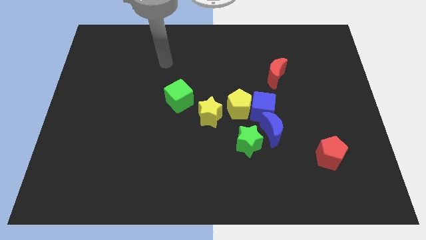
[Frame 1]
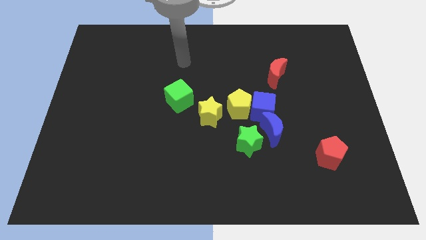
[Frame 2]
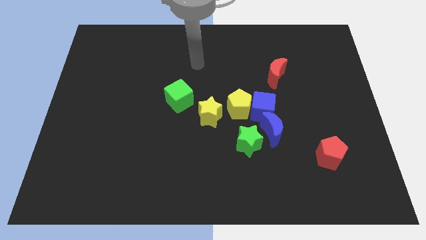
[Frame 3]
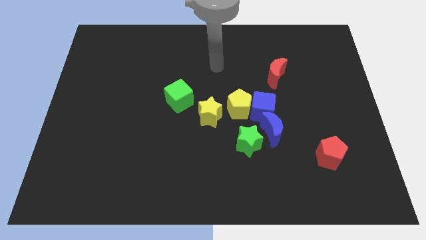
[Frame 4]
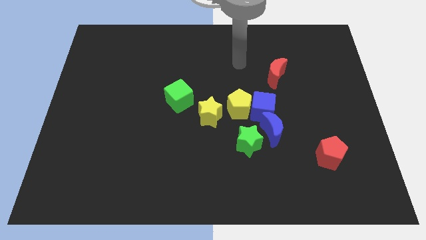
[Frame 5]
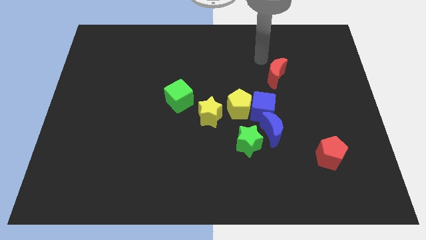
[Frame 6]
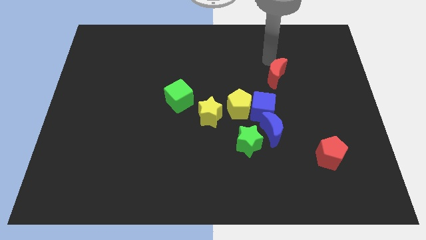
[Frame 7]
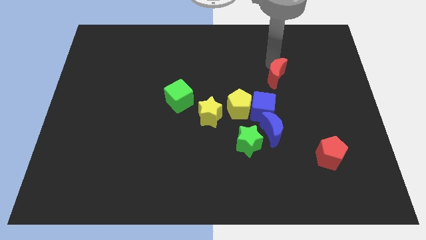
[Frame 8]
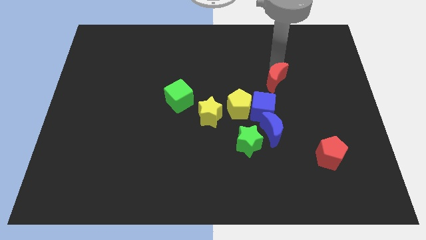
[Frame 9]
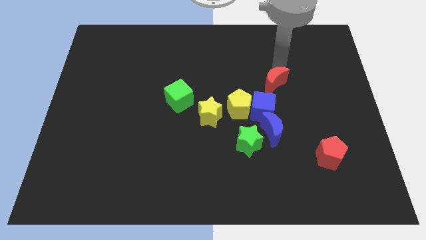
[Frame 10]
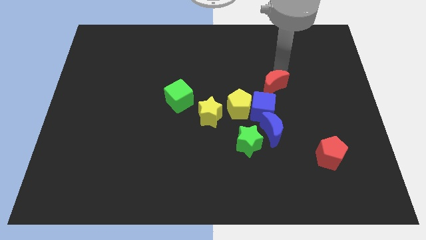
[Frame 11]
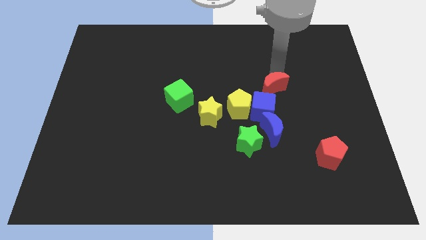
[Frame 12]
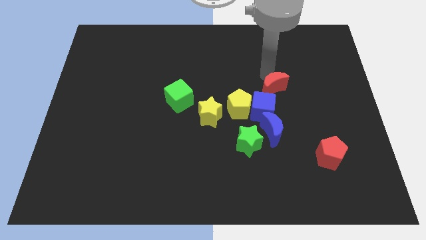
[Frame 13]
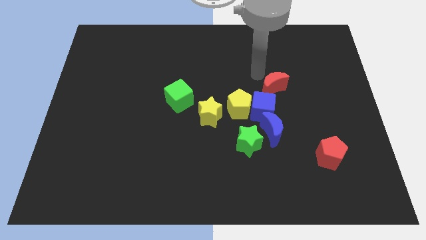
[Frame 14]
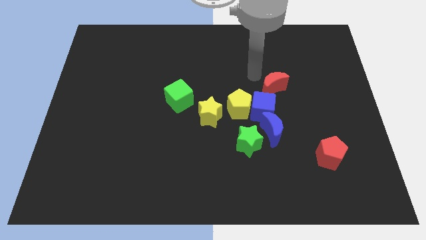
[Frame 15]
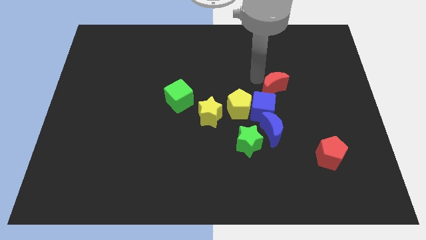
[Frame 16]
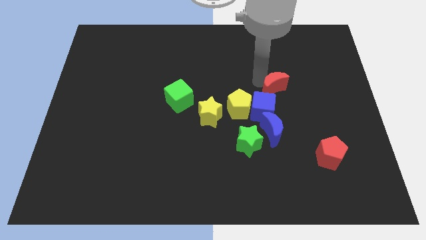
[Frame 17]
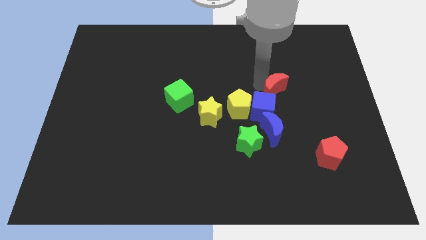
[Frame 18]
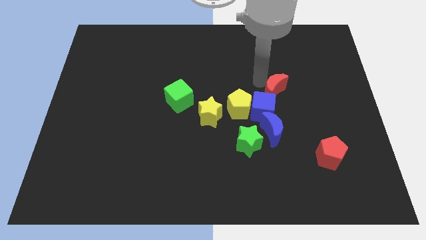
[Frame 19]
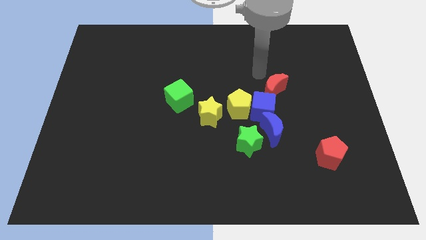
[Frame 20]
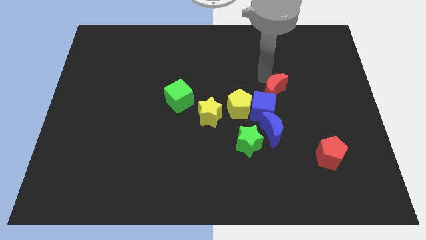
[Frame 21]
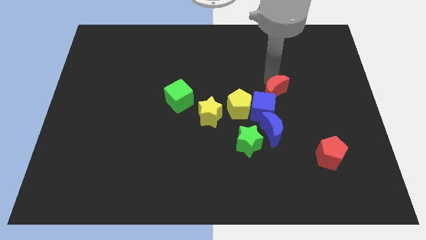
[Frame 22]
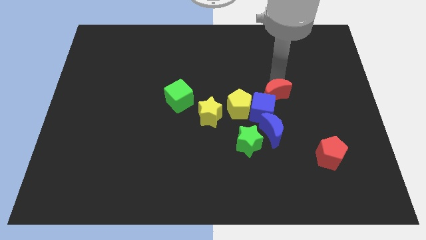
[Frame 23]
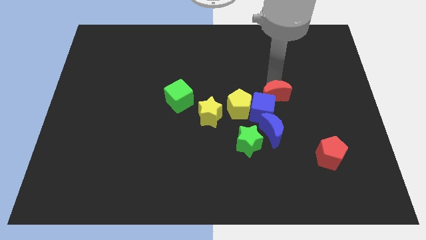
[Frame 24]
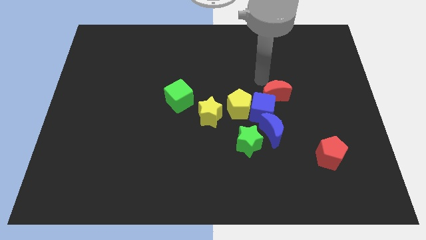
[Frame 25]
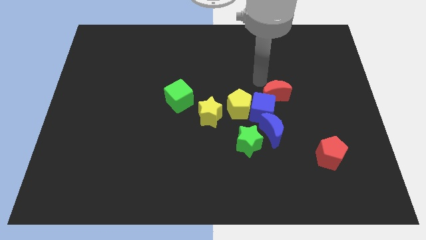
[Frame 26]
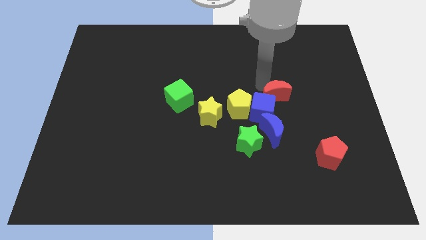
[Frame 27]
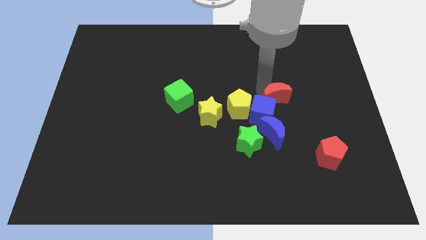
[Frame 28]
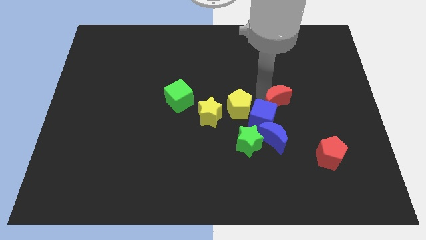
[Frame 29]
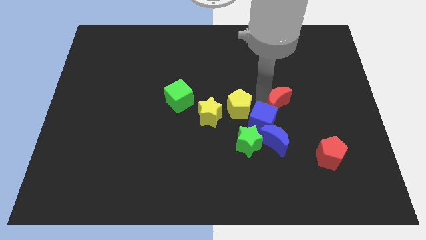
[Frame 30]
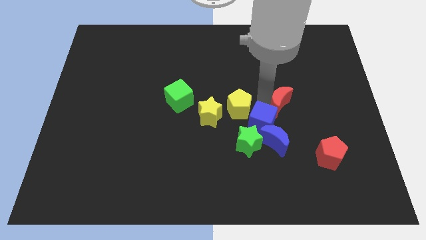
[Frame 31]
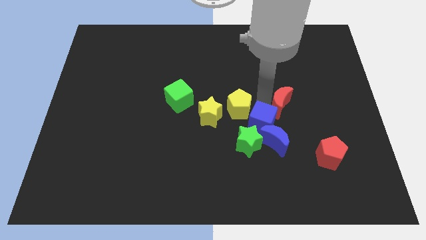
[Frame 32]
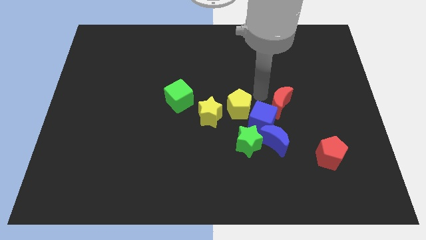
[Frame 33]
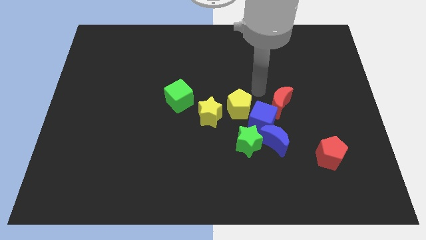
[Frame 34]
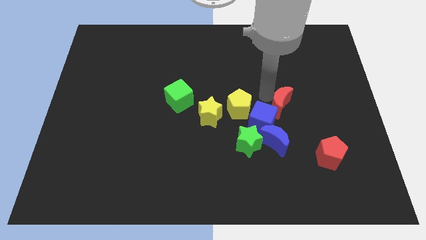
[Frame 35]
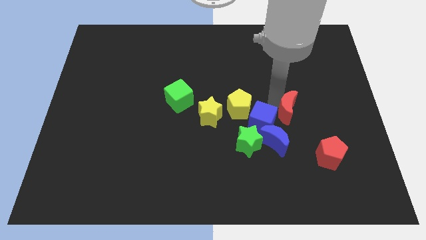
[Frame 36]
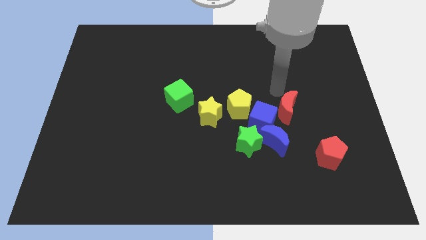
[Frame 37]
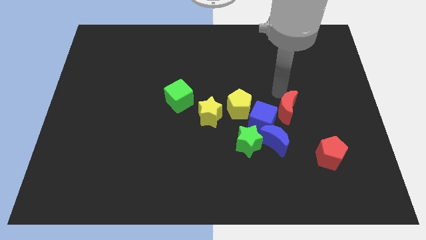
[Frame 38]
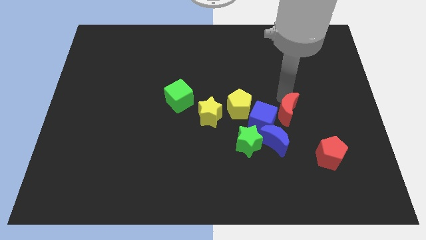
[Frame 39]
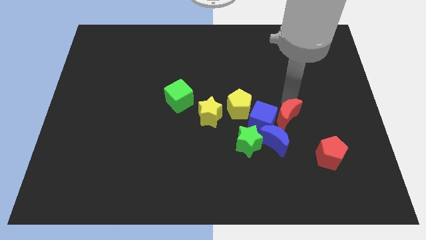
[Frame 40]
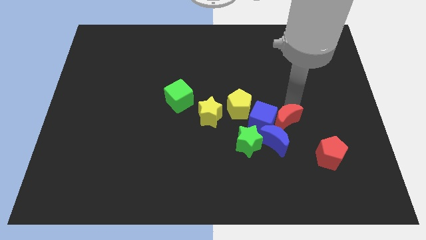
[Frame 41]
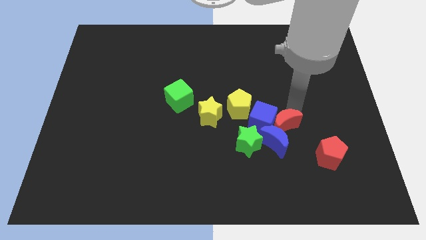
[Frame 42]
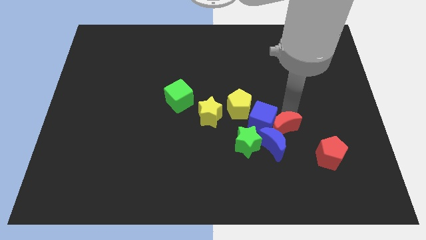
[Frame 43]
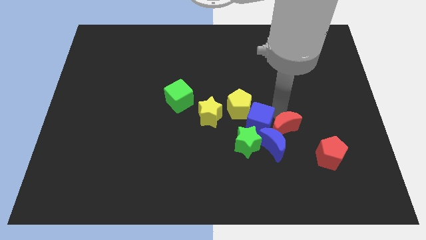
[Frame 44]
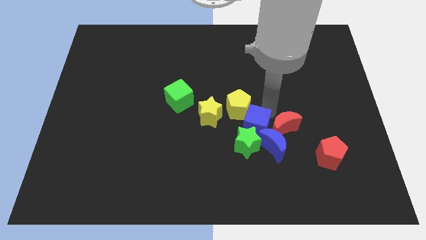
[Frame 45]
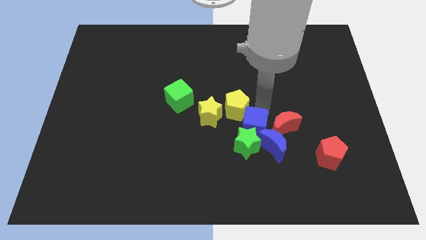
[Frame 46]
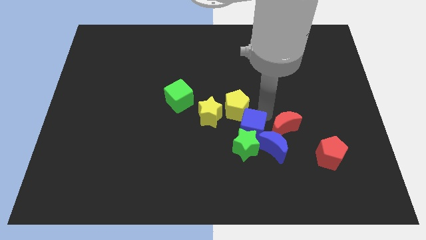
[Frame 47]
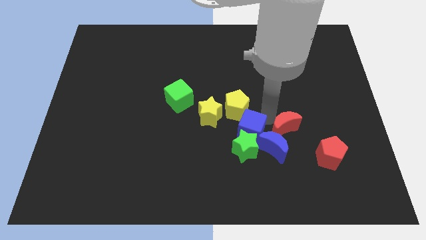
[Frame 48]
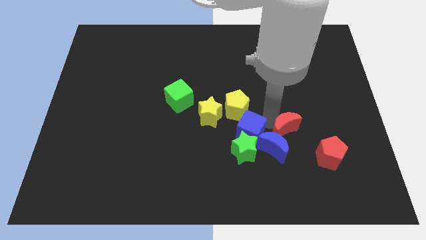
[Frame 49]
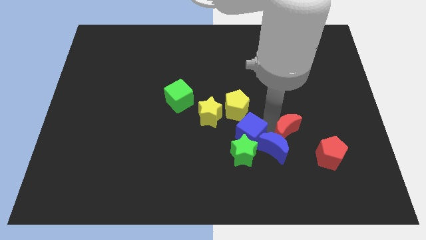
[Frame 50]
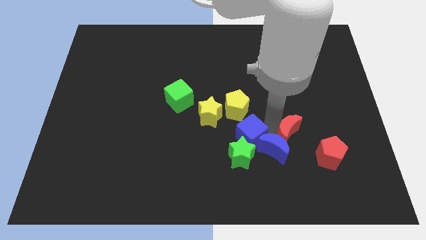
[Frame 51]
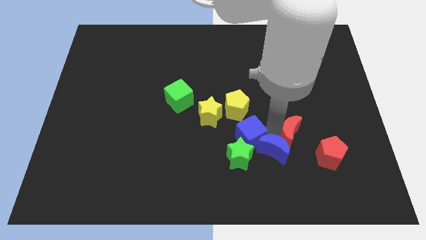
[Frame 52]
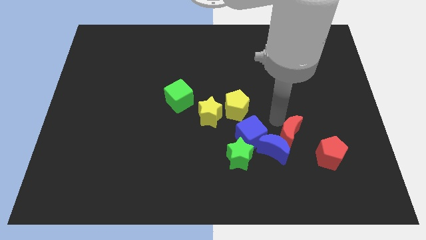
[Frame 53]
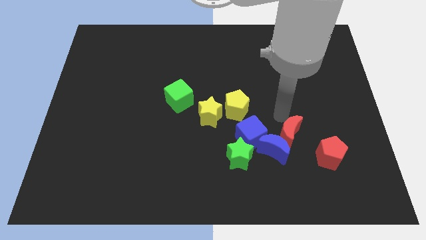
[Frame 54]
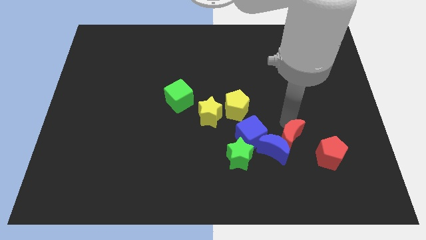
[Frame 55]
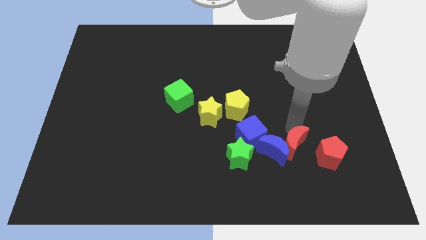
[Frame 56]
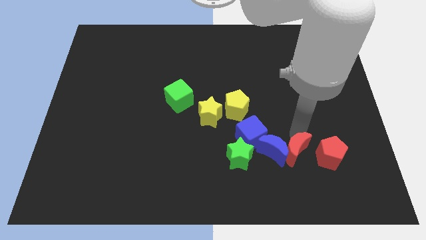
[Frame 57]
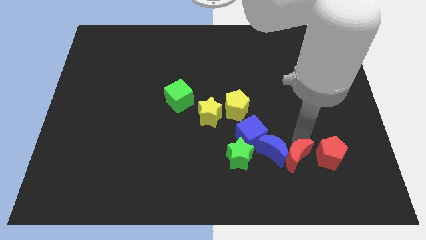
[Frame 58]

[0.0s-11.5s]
push the red moon diagonally down and to the left of the red pentagon

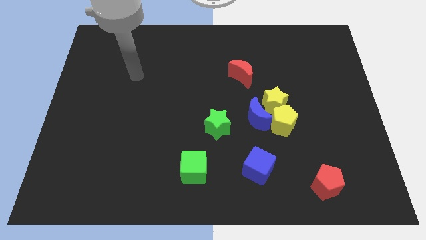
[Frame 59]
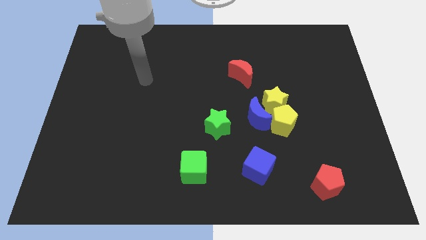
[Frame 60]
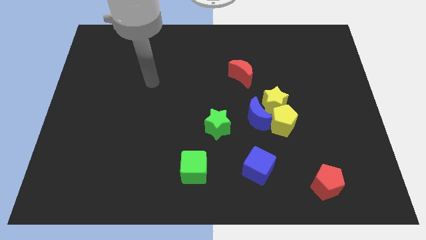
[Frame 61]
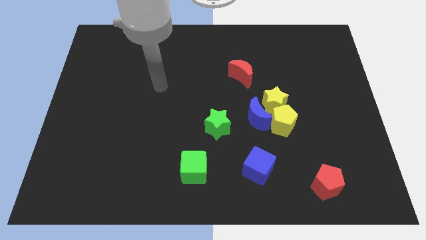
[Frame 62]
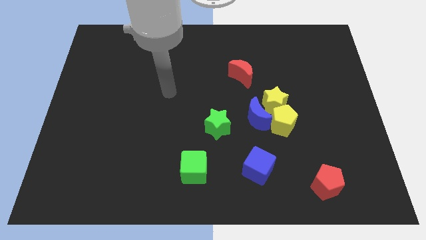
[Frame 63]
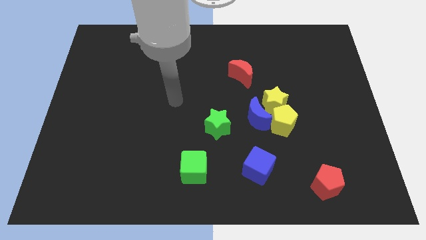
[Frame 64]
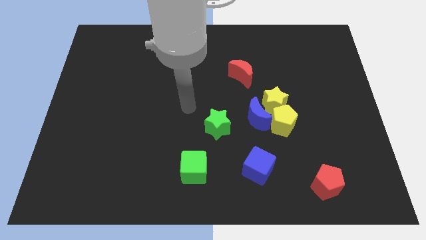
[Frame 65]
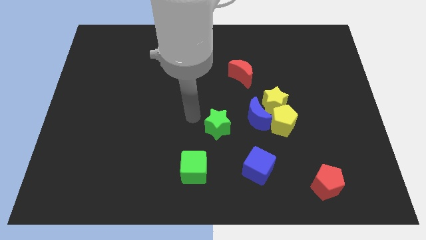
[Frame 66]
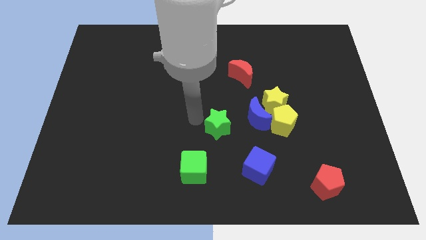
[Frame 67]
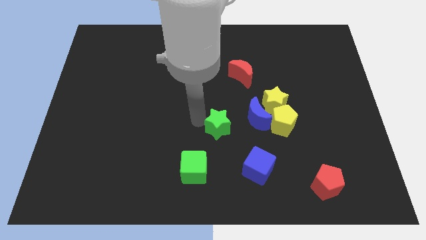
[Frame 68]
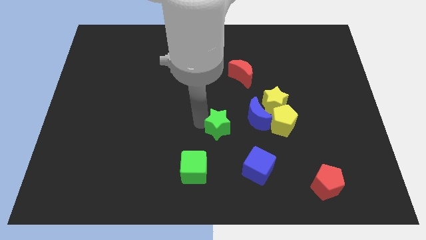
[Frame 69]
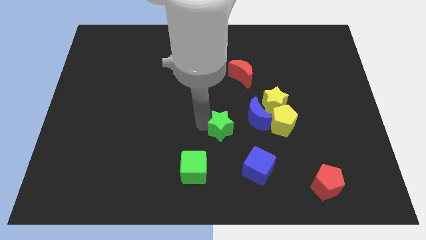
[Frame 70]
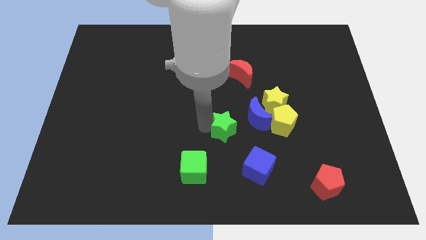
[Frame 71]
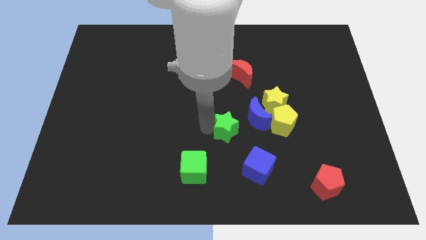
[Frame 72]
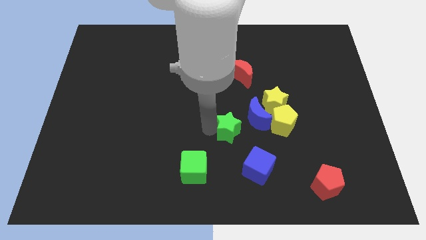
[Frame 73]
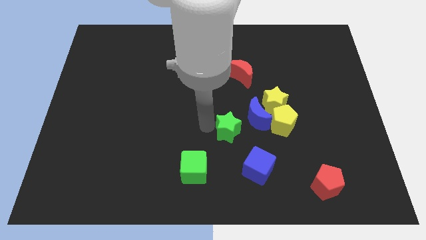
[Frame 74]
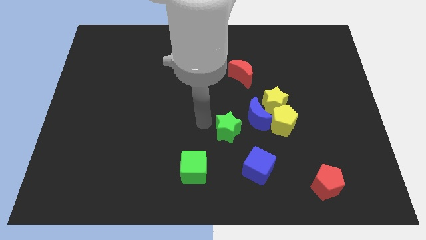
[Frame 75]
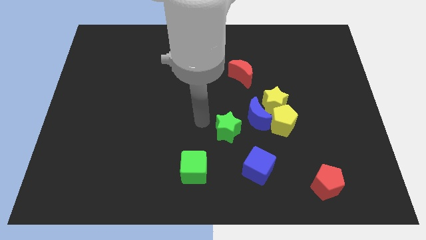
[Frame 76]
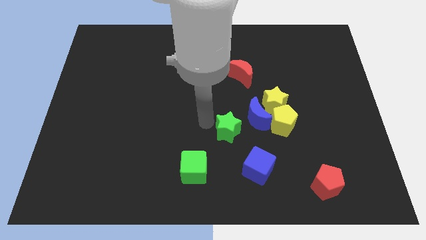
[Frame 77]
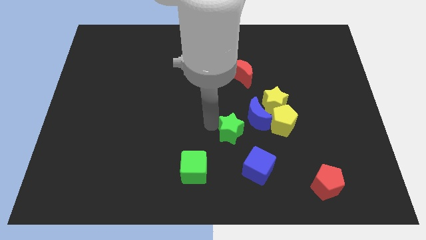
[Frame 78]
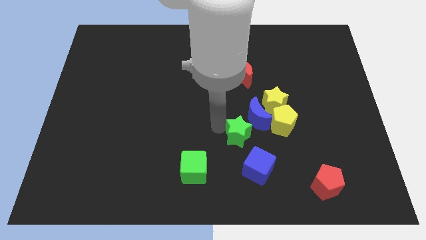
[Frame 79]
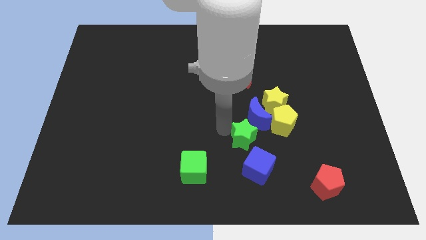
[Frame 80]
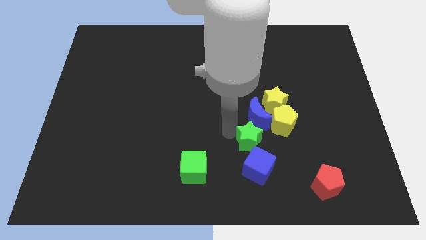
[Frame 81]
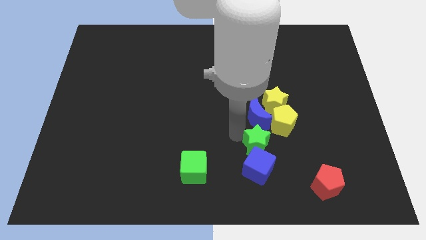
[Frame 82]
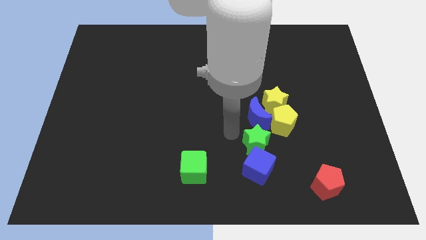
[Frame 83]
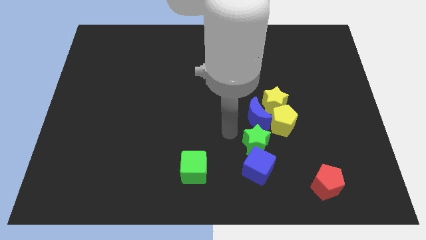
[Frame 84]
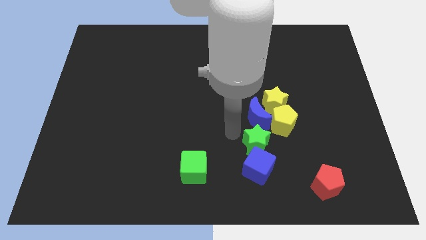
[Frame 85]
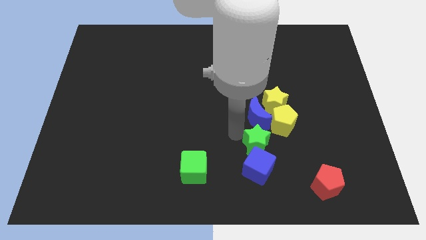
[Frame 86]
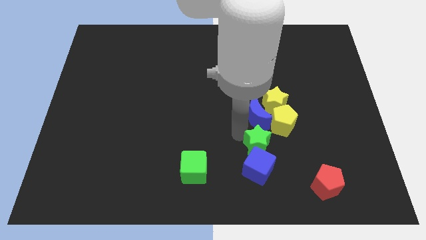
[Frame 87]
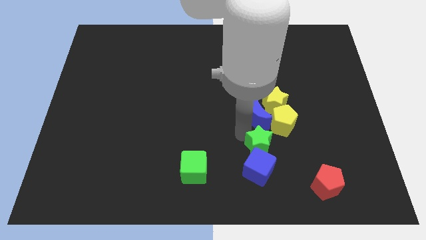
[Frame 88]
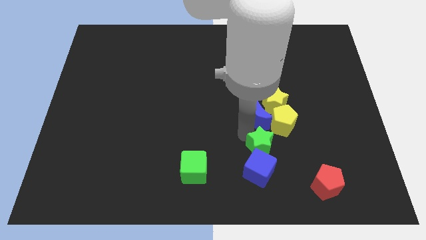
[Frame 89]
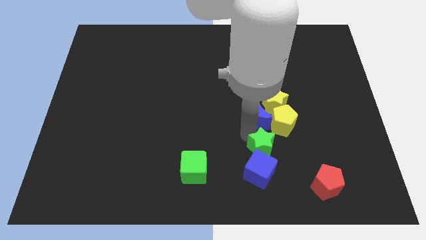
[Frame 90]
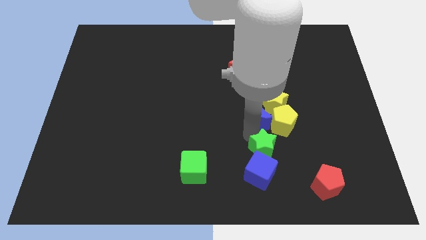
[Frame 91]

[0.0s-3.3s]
slide the green star below the yellow pentagon
